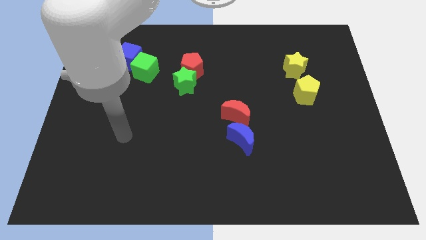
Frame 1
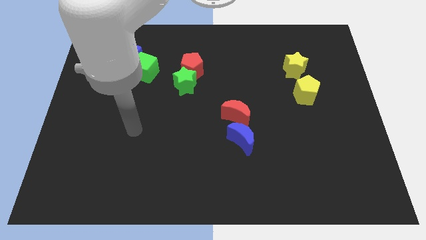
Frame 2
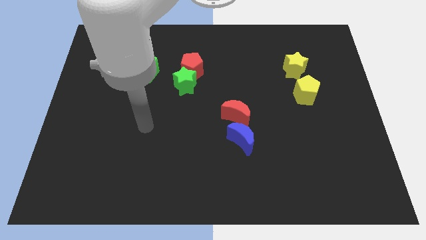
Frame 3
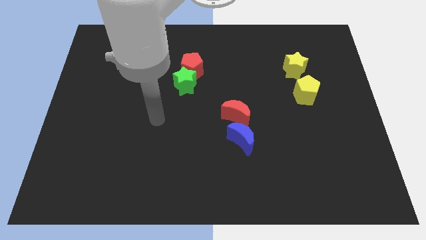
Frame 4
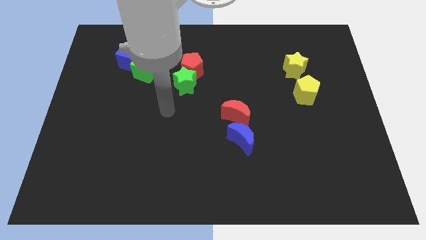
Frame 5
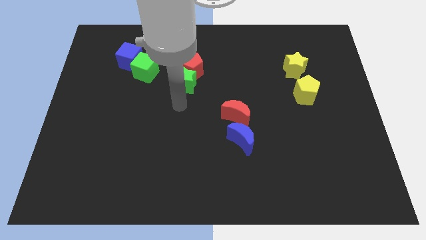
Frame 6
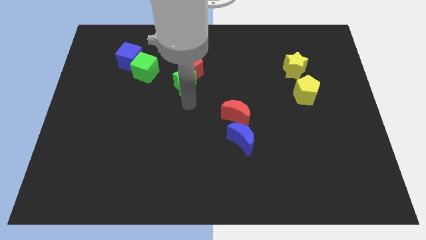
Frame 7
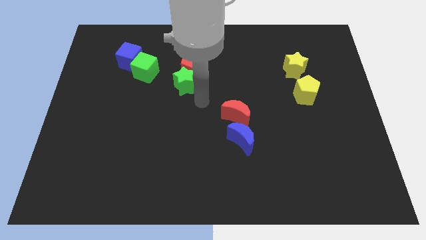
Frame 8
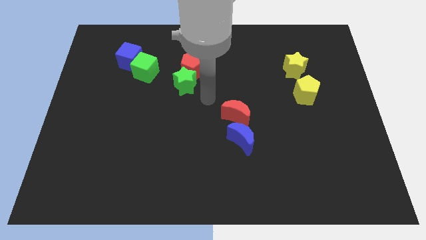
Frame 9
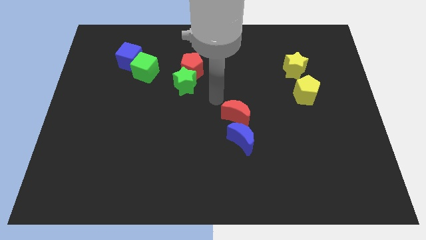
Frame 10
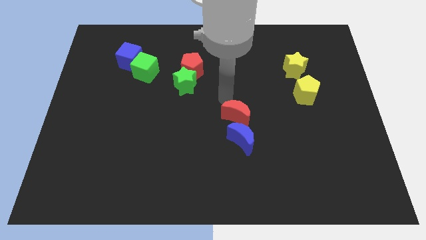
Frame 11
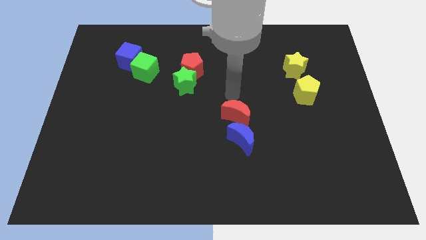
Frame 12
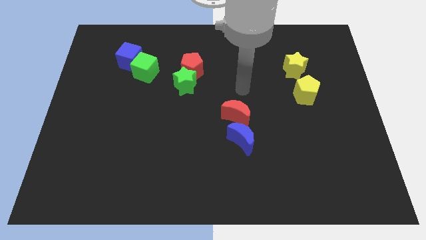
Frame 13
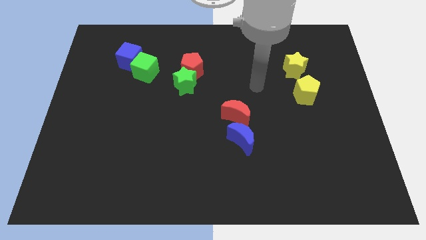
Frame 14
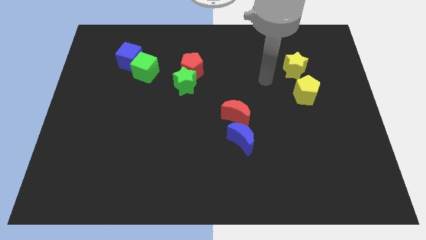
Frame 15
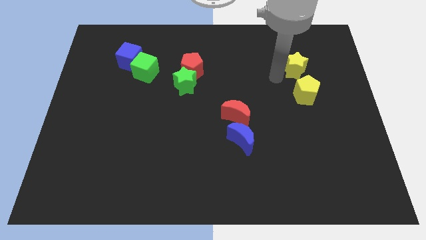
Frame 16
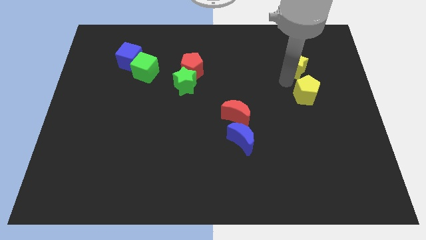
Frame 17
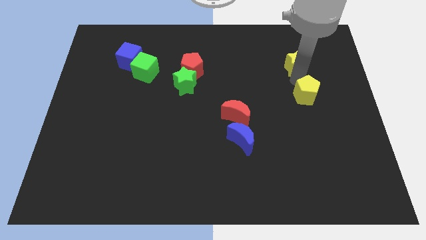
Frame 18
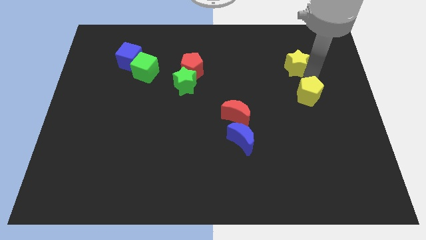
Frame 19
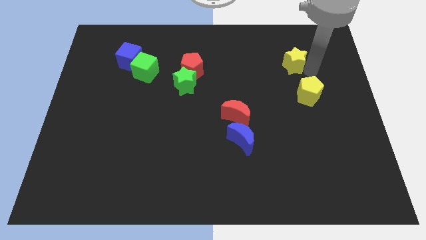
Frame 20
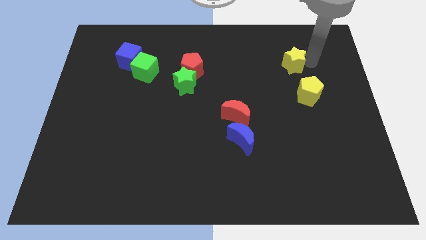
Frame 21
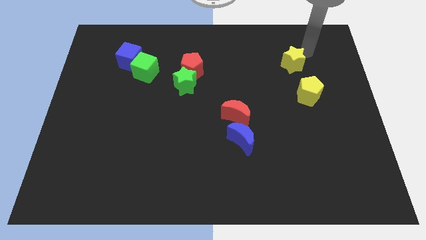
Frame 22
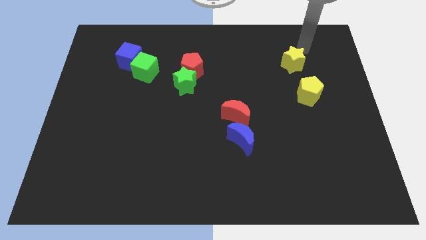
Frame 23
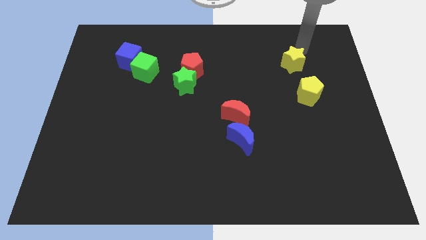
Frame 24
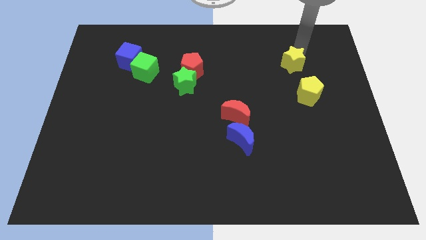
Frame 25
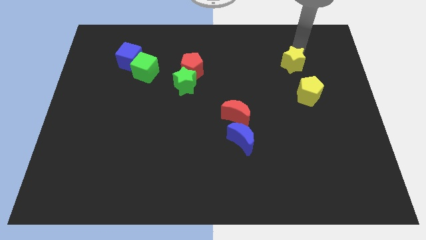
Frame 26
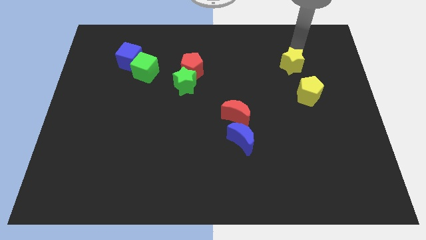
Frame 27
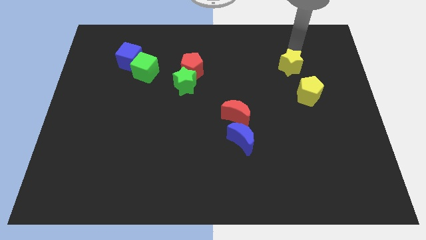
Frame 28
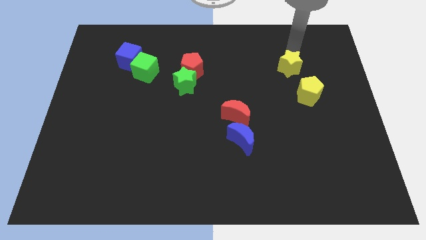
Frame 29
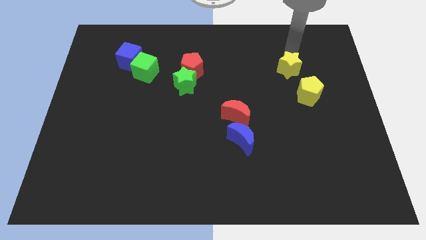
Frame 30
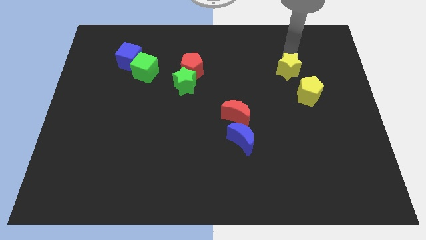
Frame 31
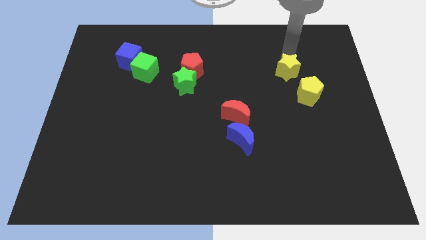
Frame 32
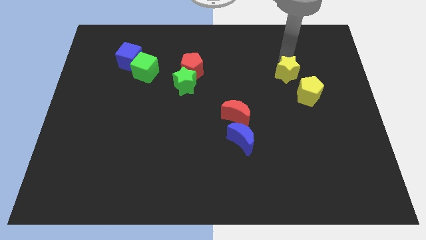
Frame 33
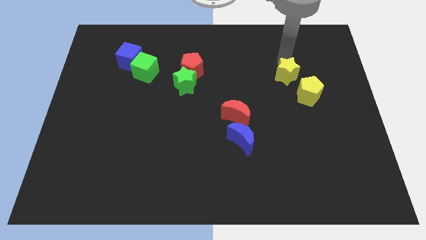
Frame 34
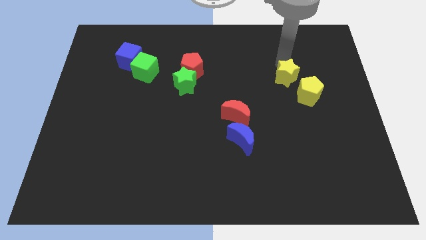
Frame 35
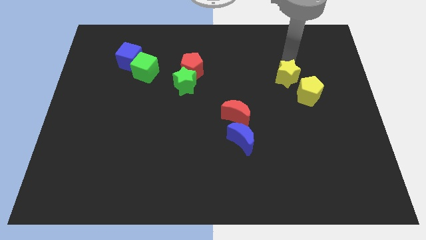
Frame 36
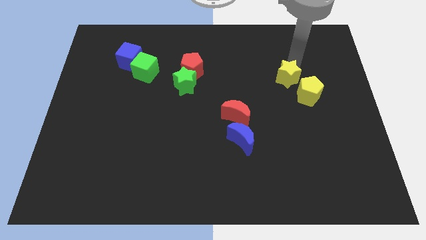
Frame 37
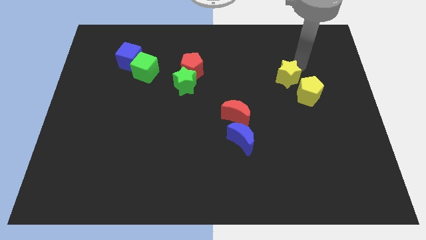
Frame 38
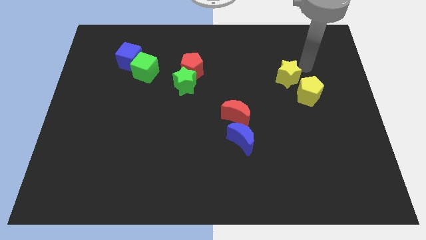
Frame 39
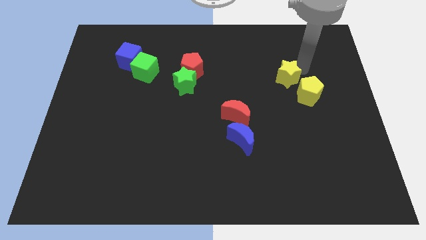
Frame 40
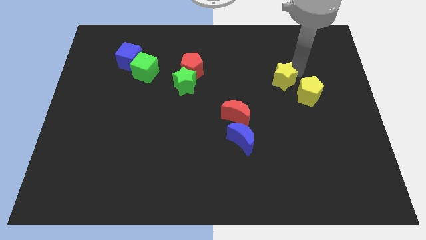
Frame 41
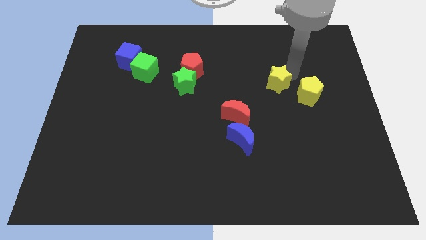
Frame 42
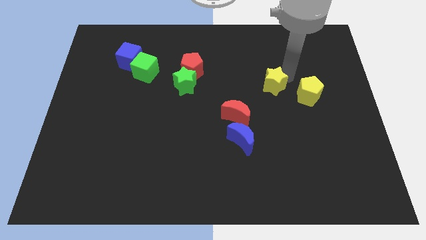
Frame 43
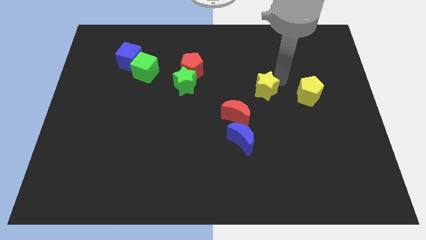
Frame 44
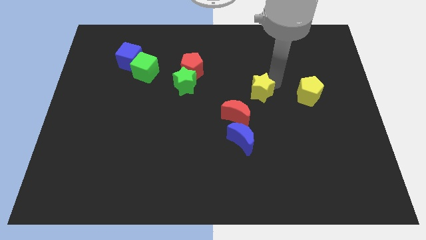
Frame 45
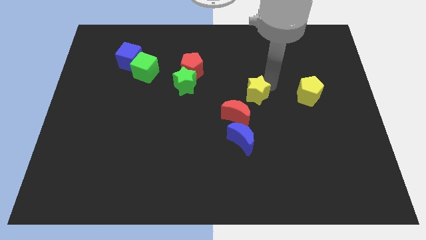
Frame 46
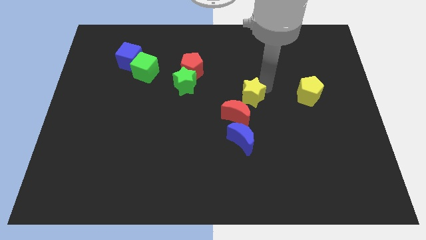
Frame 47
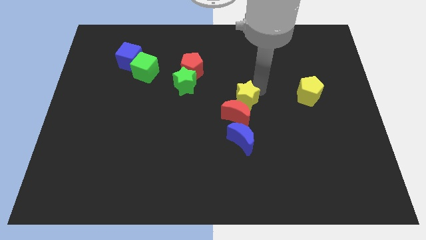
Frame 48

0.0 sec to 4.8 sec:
push the yellow star towards the red moon

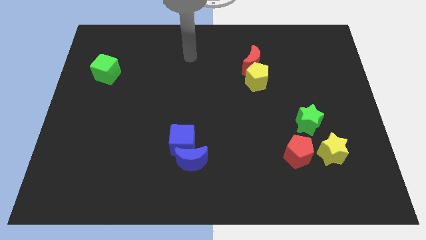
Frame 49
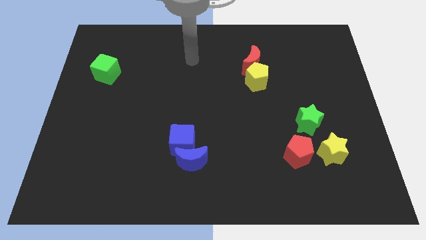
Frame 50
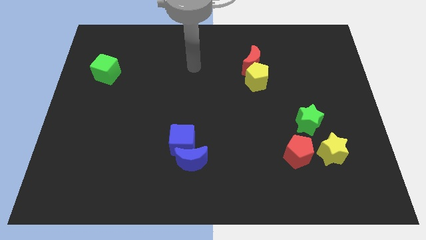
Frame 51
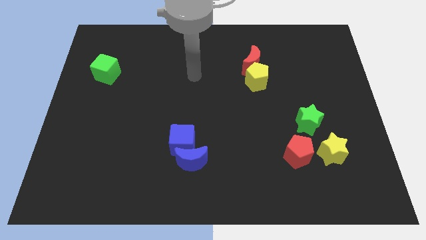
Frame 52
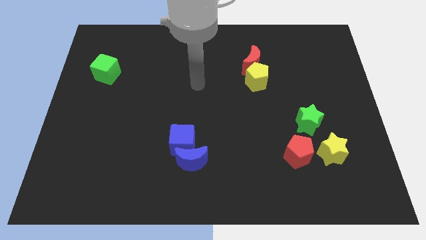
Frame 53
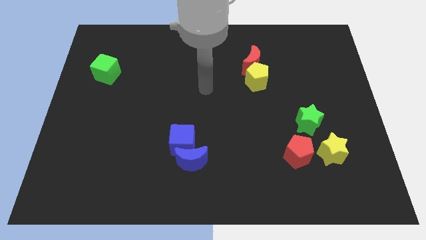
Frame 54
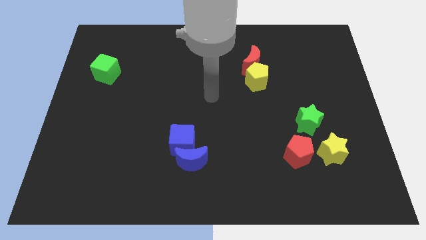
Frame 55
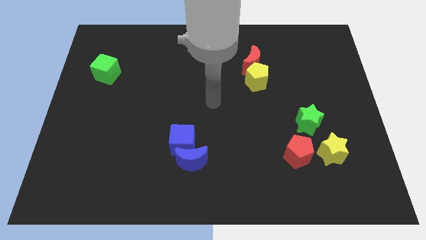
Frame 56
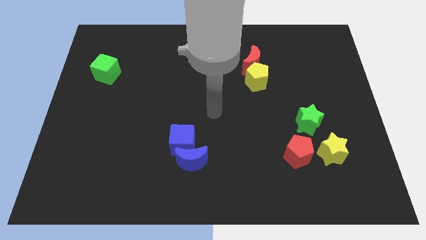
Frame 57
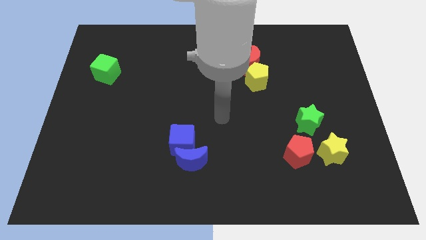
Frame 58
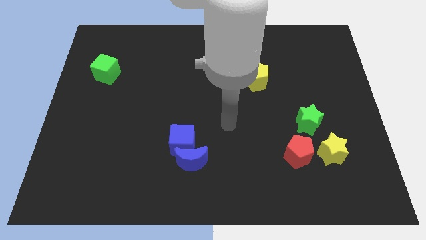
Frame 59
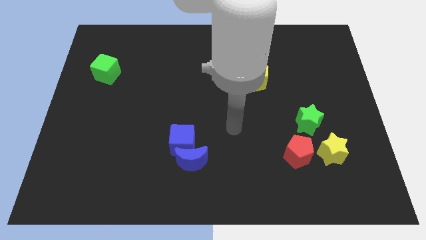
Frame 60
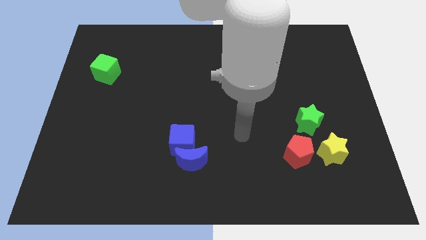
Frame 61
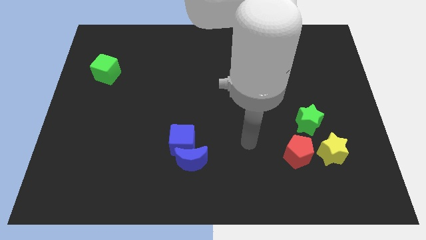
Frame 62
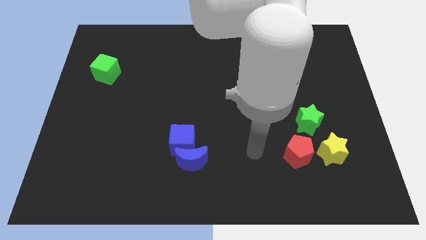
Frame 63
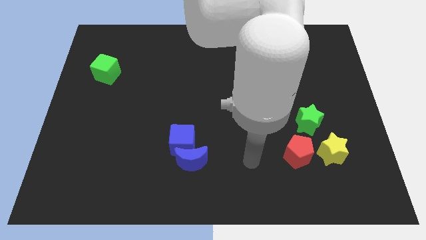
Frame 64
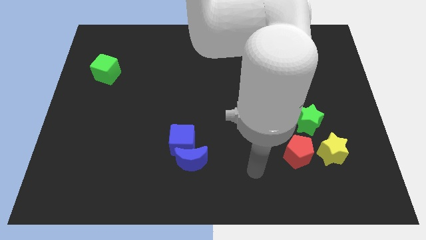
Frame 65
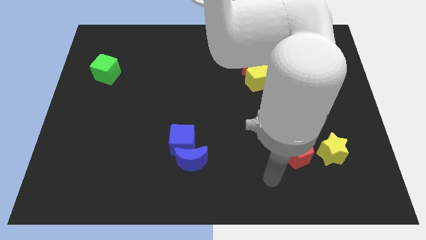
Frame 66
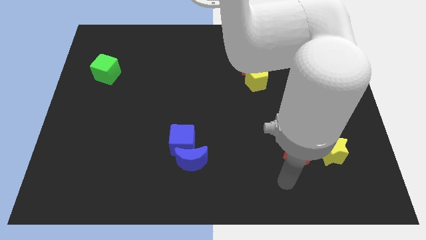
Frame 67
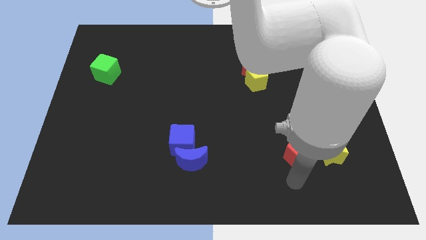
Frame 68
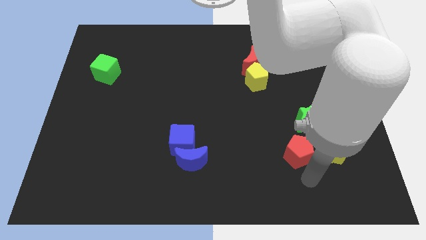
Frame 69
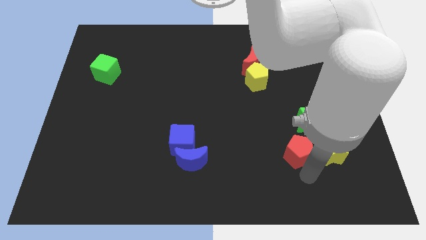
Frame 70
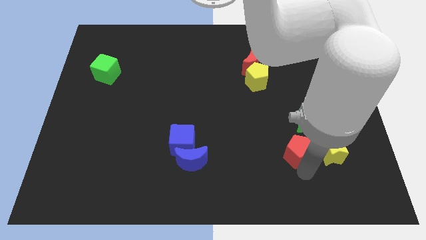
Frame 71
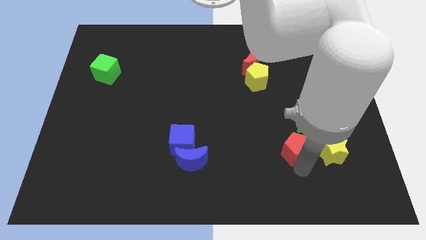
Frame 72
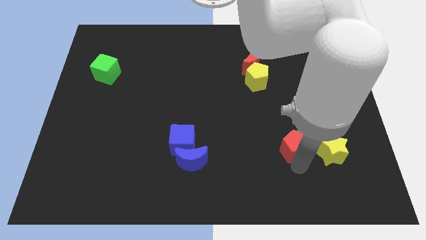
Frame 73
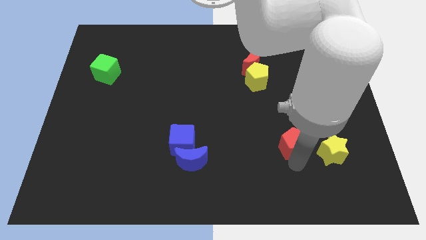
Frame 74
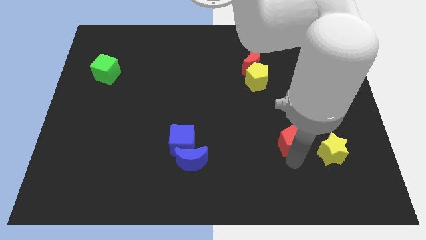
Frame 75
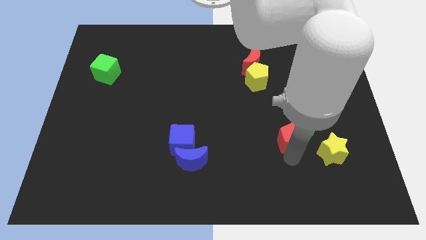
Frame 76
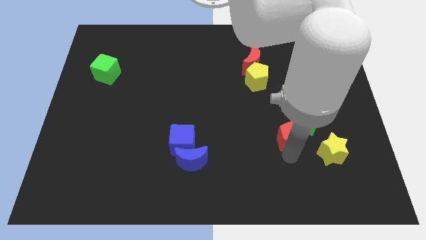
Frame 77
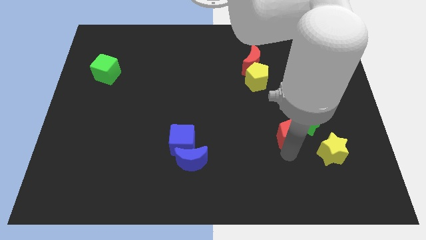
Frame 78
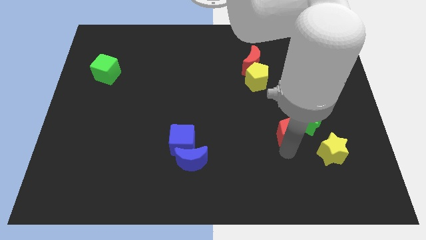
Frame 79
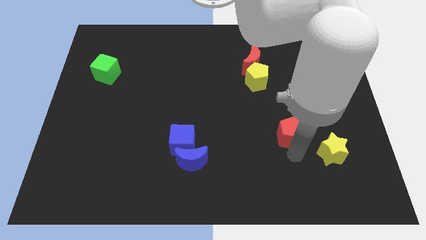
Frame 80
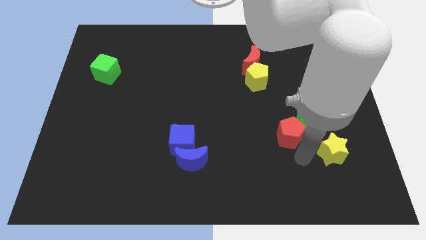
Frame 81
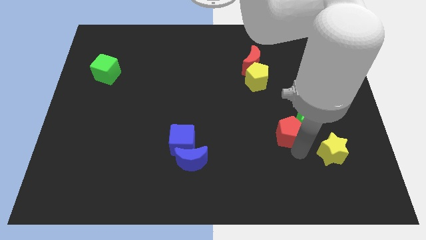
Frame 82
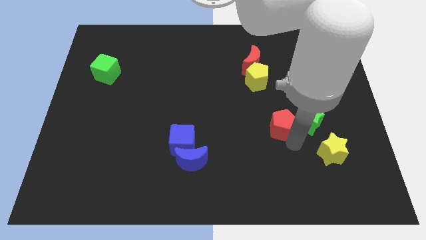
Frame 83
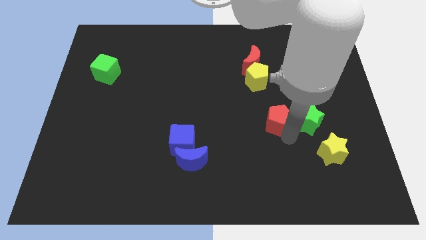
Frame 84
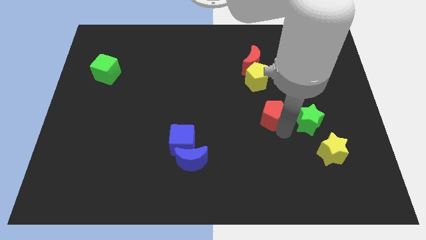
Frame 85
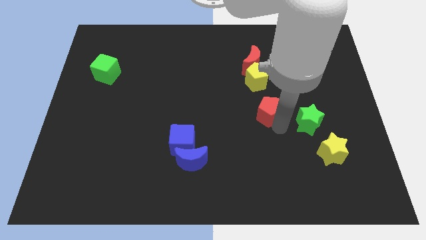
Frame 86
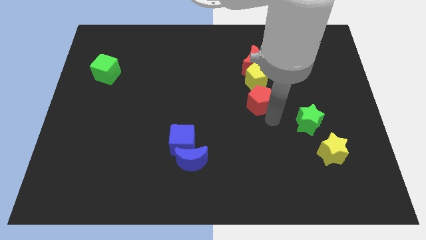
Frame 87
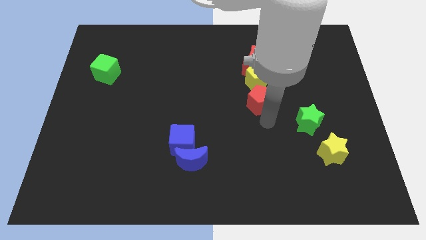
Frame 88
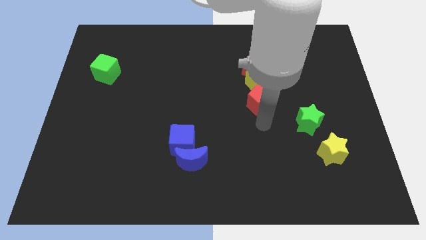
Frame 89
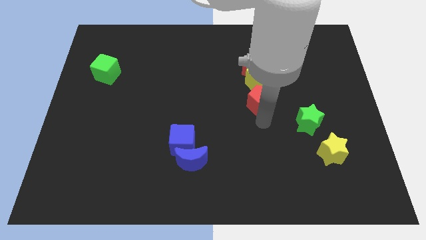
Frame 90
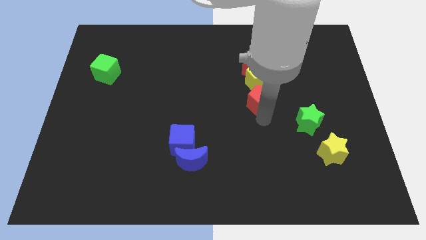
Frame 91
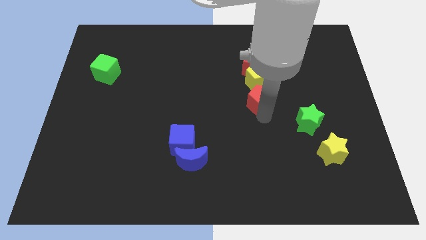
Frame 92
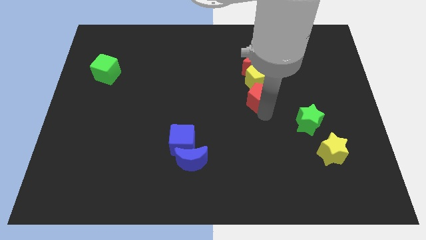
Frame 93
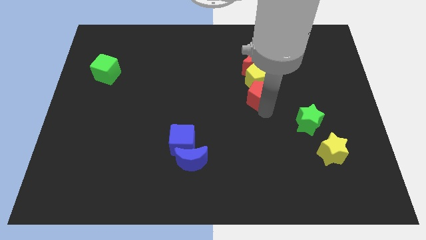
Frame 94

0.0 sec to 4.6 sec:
put the red pentagon close to the yellow pentagon
